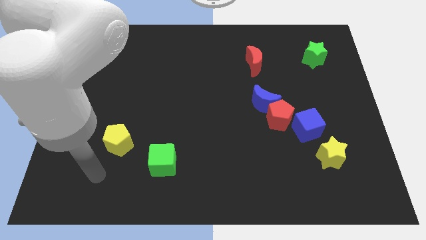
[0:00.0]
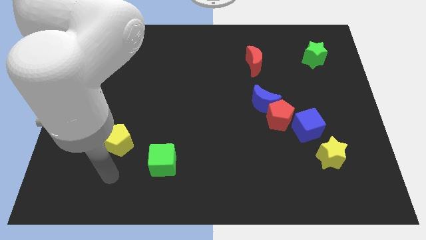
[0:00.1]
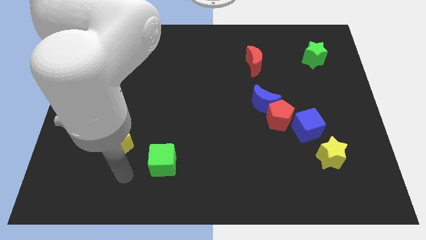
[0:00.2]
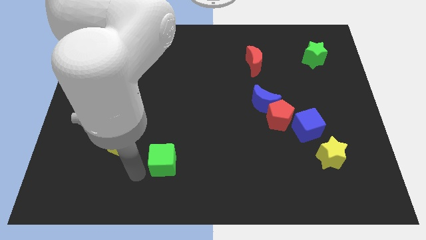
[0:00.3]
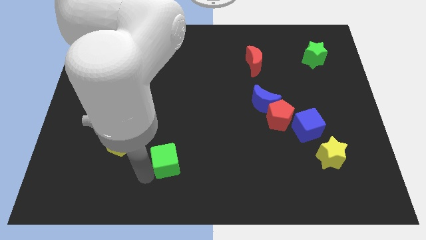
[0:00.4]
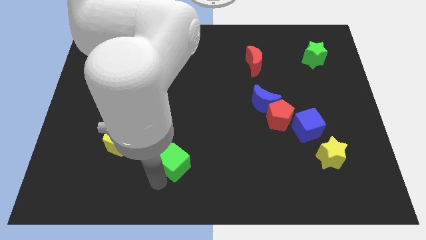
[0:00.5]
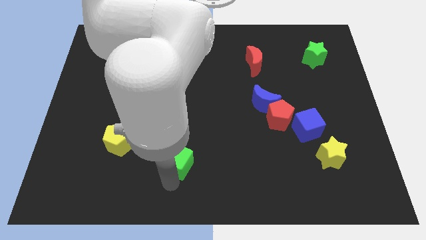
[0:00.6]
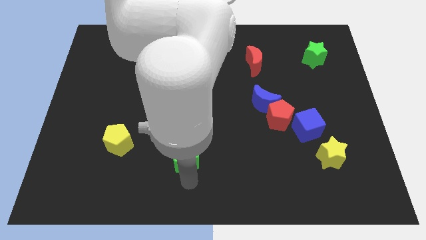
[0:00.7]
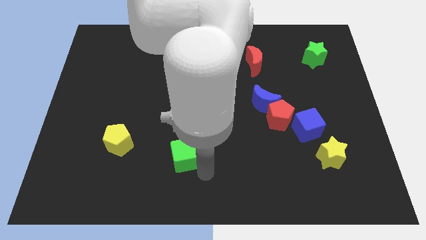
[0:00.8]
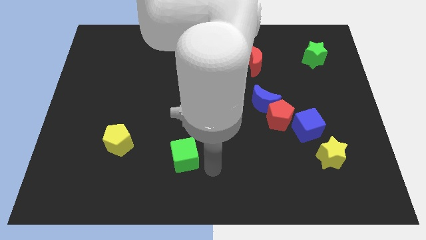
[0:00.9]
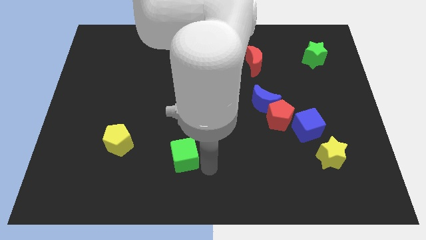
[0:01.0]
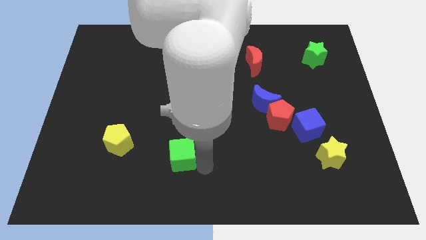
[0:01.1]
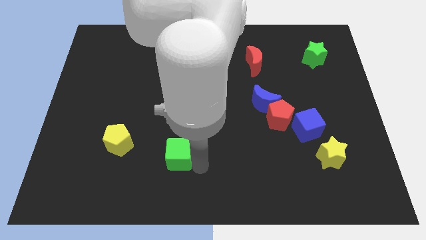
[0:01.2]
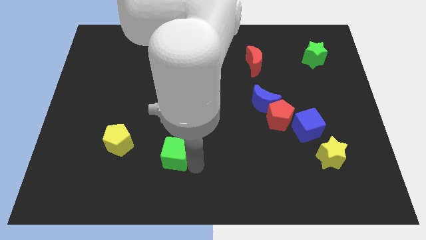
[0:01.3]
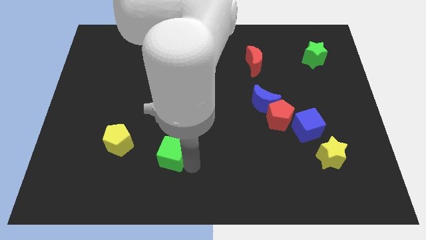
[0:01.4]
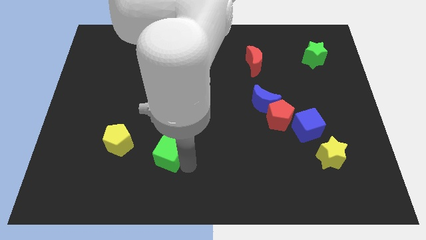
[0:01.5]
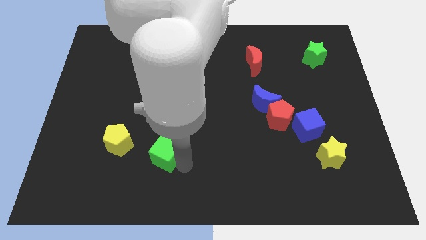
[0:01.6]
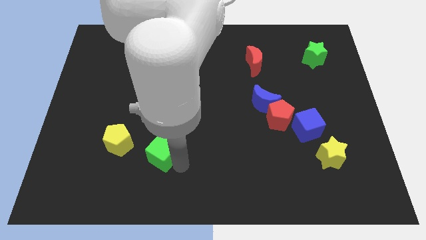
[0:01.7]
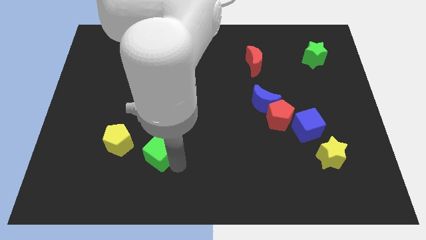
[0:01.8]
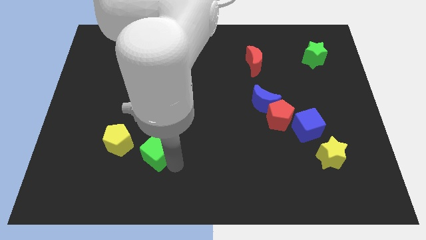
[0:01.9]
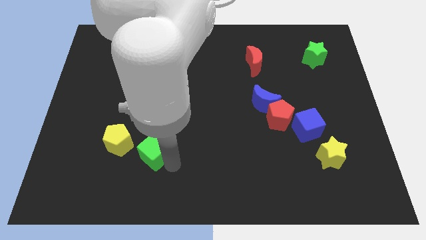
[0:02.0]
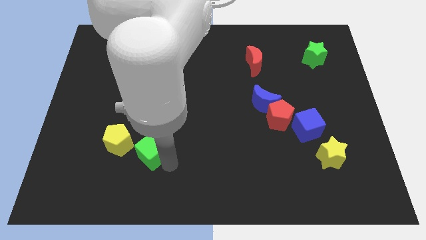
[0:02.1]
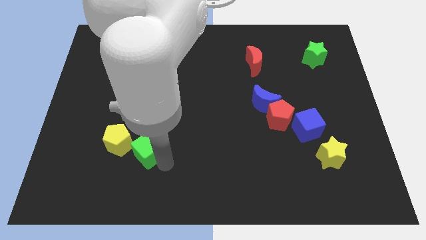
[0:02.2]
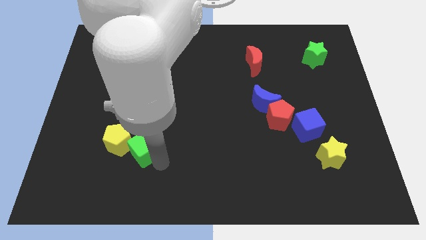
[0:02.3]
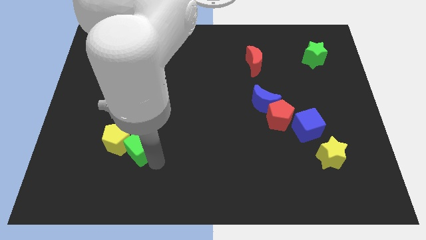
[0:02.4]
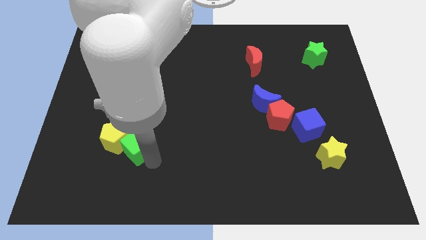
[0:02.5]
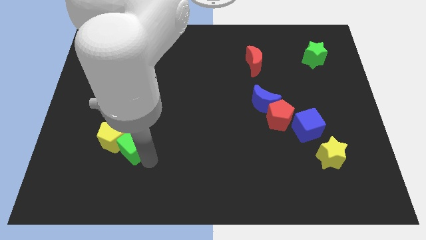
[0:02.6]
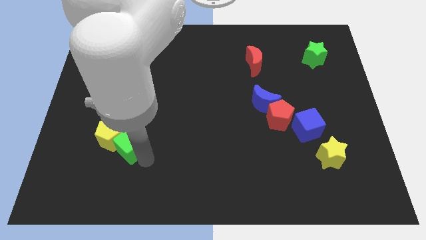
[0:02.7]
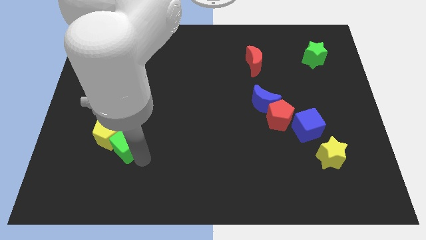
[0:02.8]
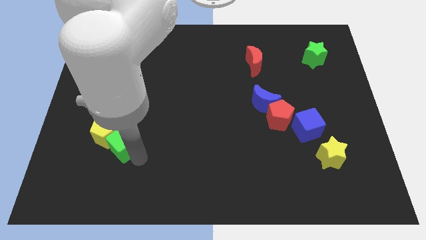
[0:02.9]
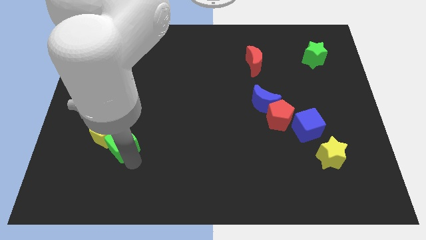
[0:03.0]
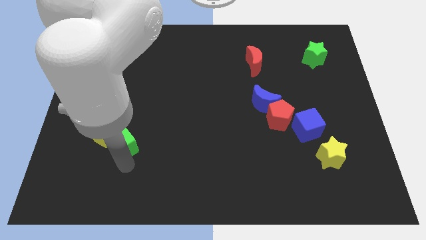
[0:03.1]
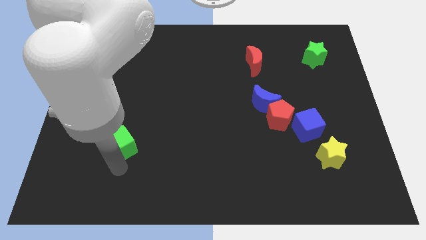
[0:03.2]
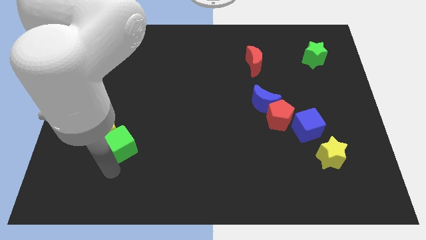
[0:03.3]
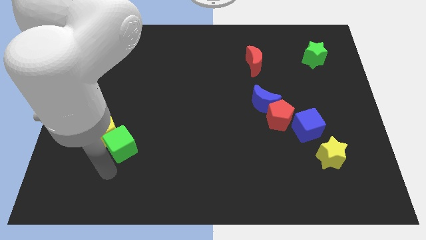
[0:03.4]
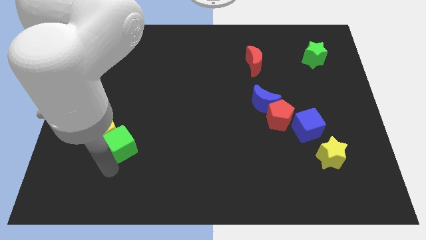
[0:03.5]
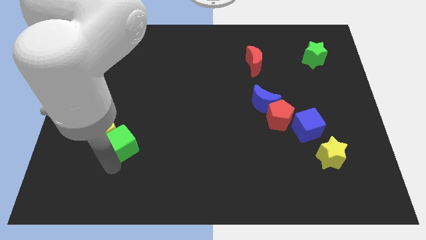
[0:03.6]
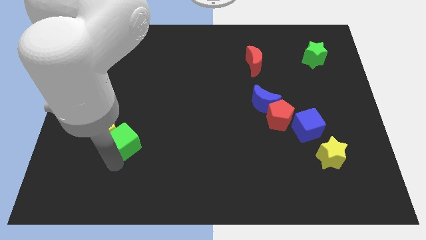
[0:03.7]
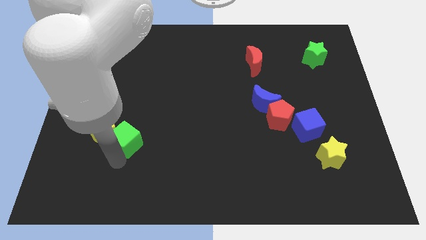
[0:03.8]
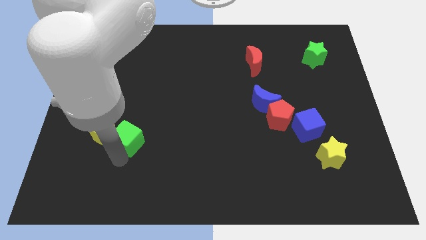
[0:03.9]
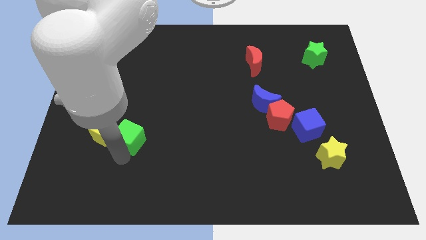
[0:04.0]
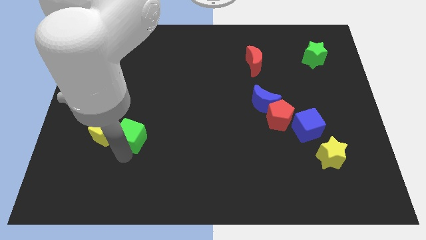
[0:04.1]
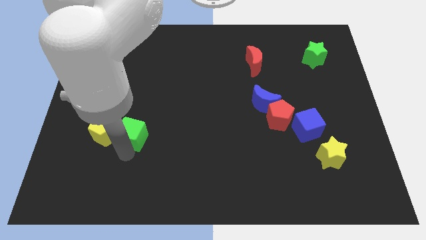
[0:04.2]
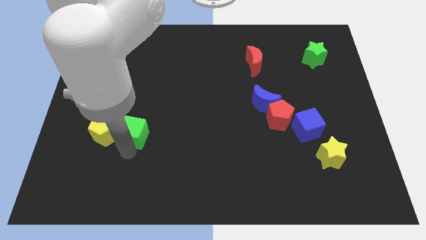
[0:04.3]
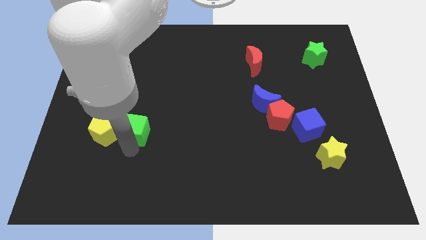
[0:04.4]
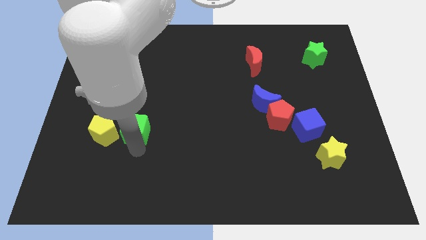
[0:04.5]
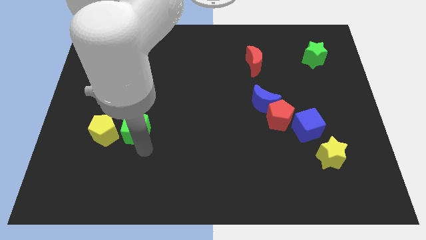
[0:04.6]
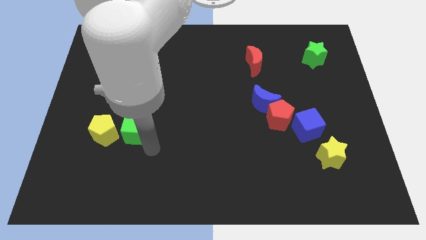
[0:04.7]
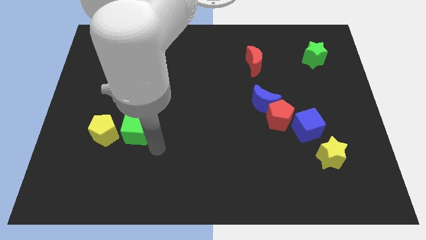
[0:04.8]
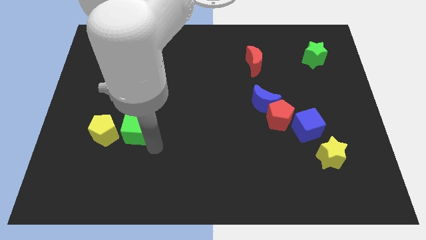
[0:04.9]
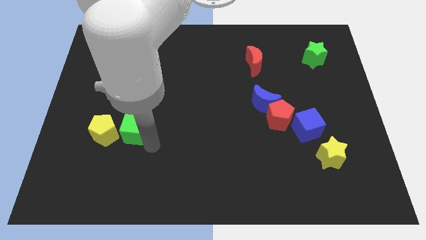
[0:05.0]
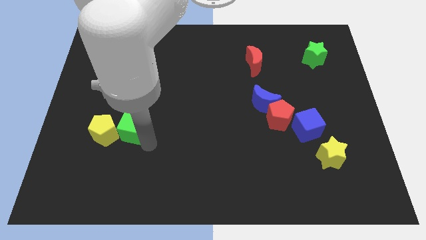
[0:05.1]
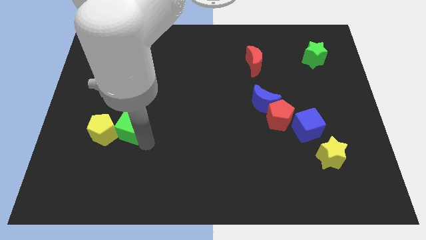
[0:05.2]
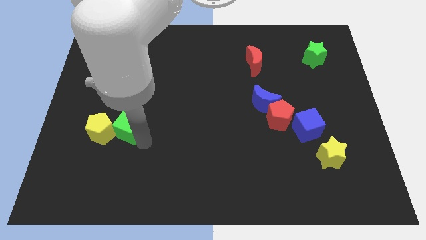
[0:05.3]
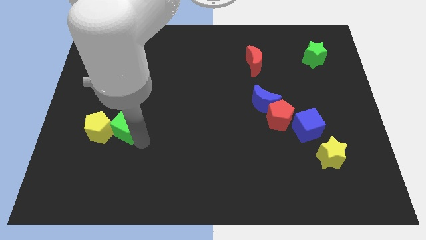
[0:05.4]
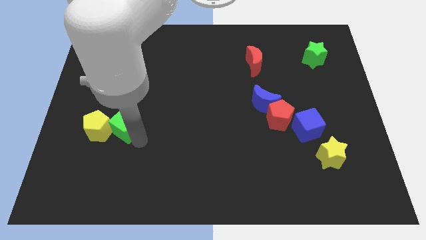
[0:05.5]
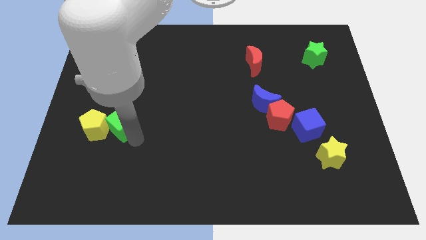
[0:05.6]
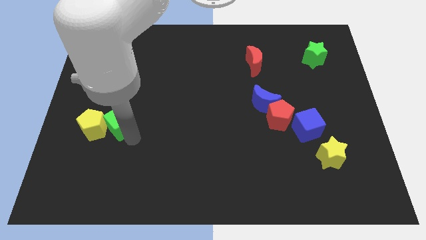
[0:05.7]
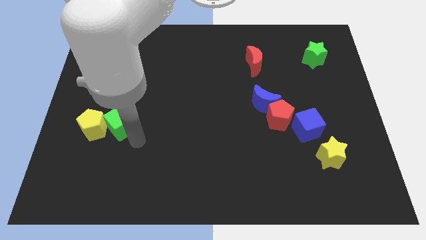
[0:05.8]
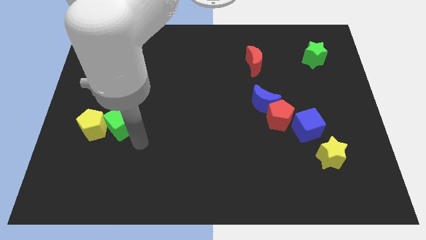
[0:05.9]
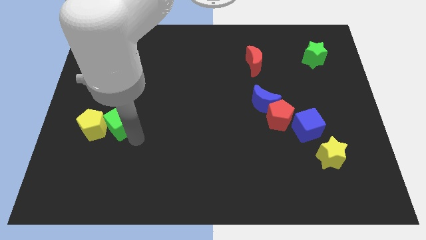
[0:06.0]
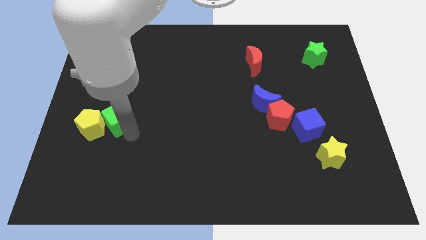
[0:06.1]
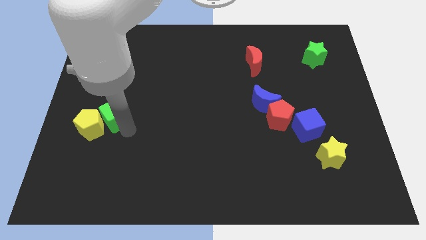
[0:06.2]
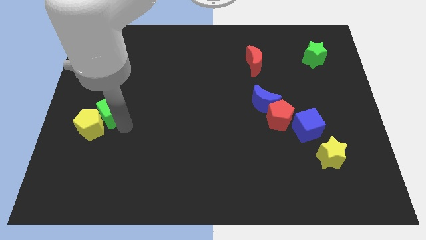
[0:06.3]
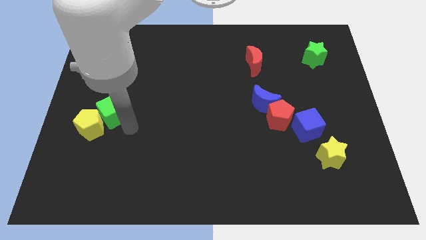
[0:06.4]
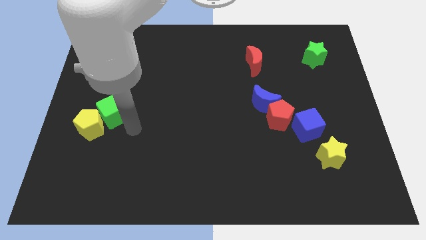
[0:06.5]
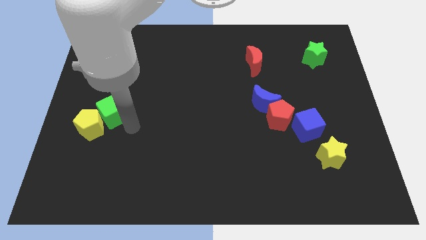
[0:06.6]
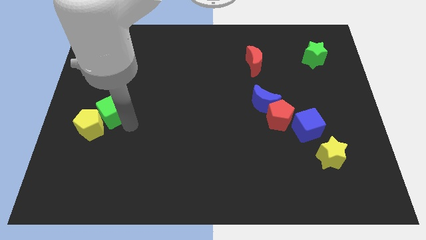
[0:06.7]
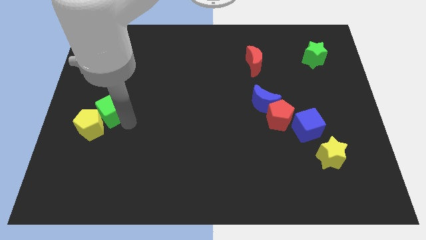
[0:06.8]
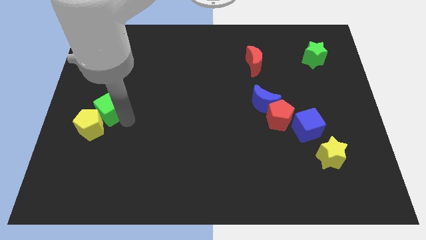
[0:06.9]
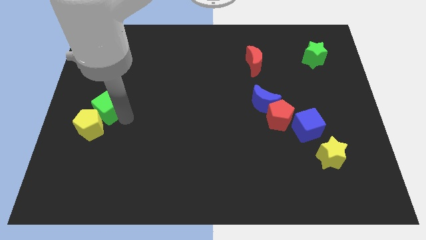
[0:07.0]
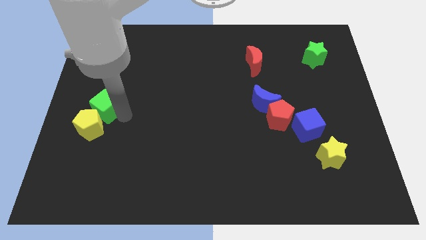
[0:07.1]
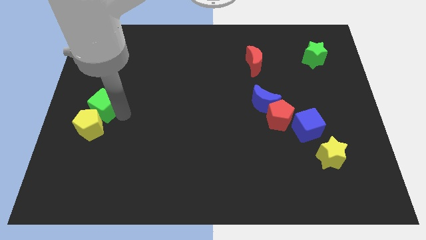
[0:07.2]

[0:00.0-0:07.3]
push the green cube to the left side of the board
